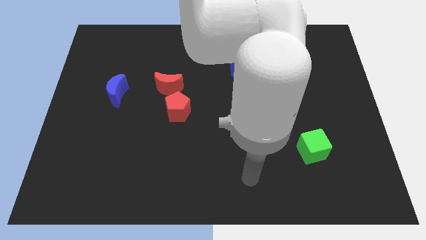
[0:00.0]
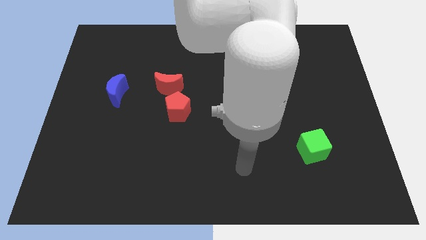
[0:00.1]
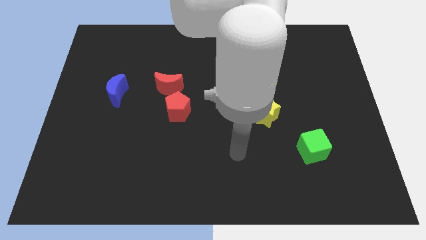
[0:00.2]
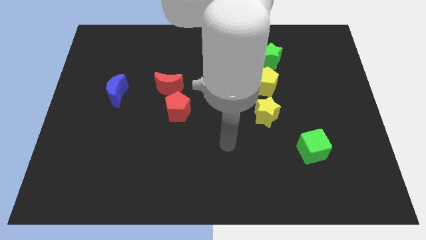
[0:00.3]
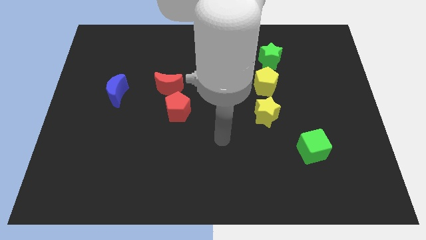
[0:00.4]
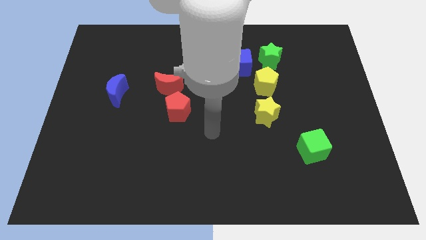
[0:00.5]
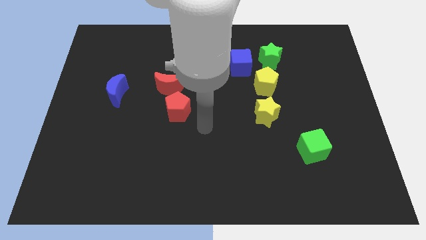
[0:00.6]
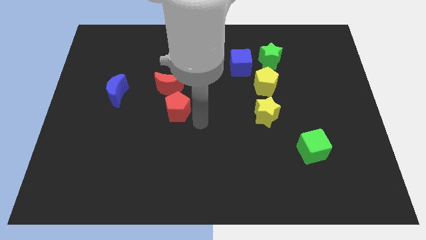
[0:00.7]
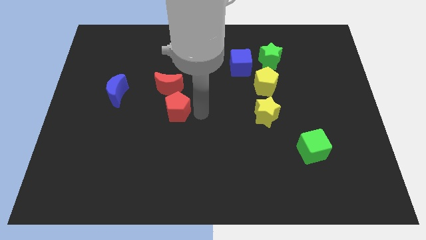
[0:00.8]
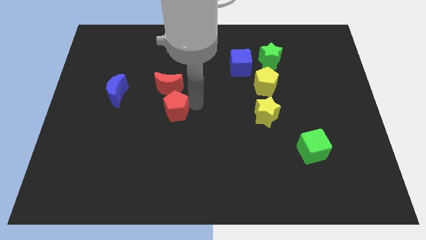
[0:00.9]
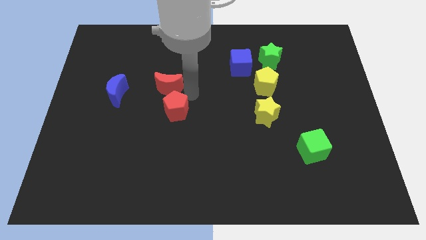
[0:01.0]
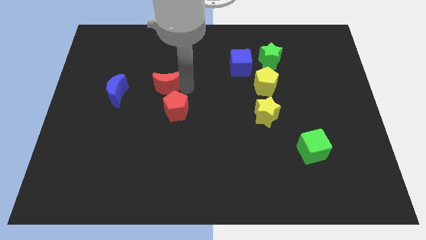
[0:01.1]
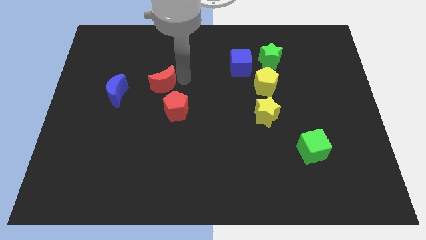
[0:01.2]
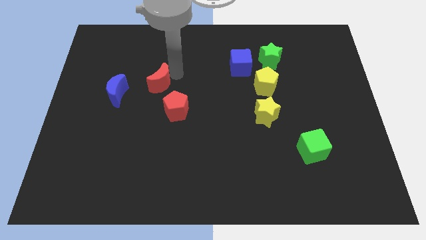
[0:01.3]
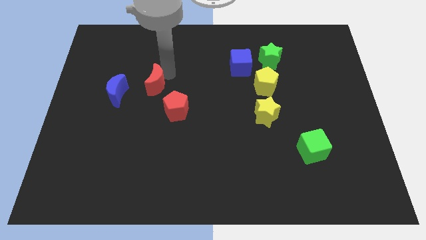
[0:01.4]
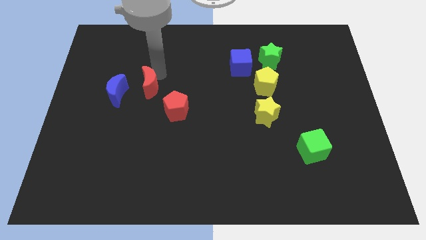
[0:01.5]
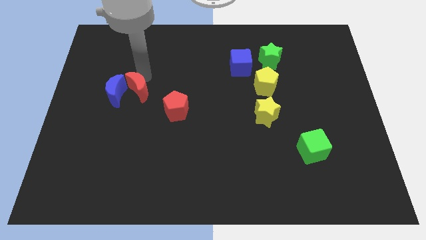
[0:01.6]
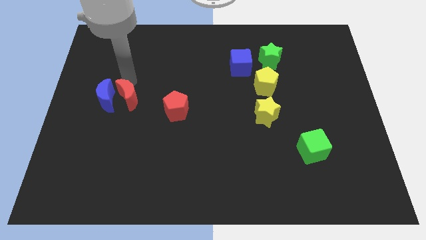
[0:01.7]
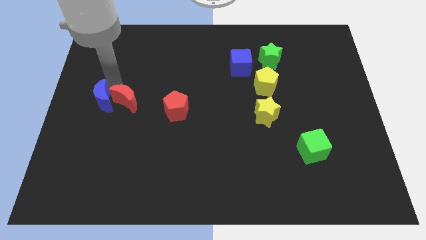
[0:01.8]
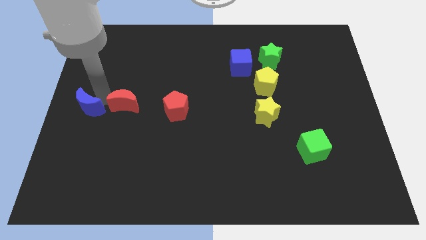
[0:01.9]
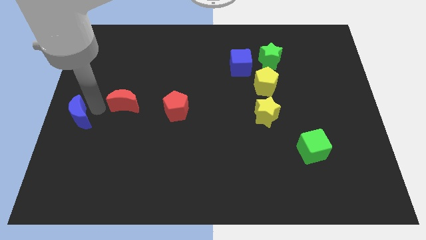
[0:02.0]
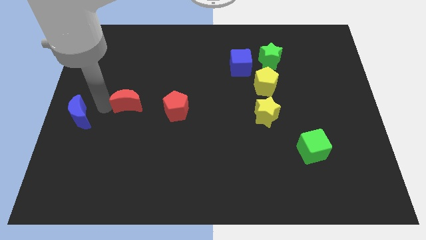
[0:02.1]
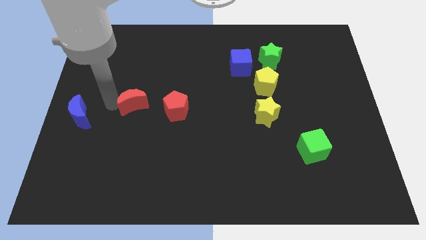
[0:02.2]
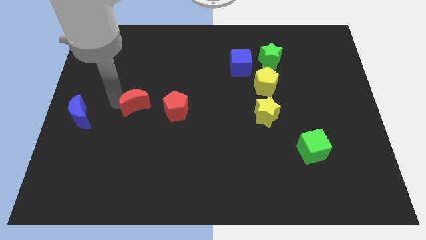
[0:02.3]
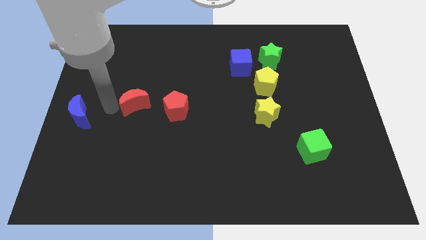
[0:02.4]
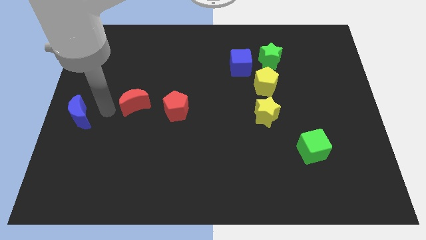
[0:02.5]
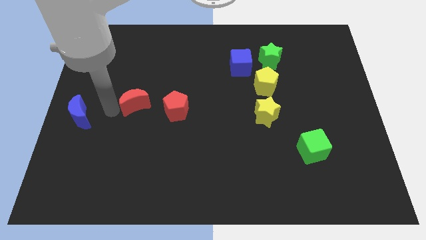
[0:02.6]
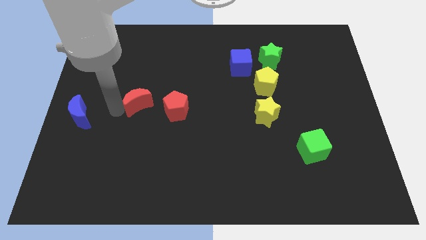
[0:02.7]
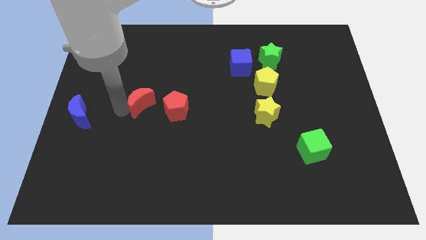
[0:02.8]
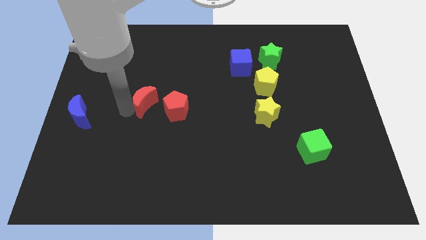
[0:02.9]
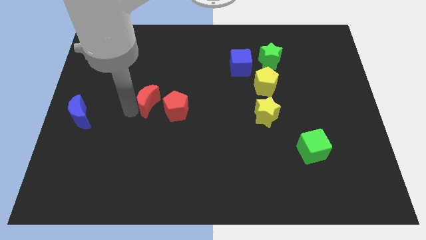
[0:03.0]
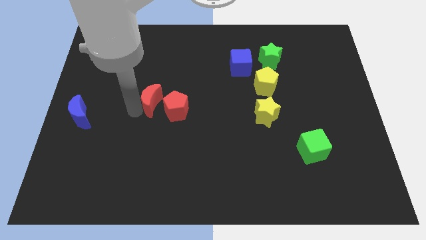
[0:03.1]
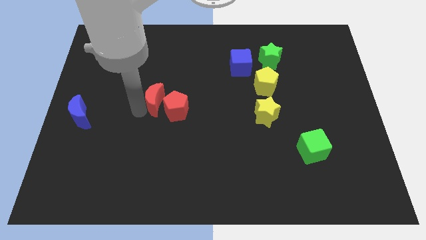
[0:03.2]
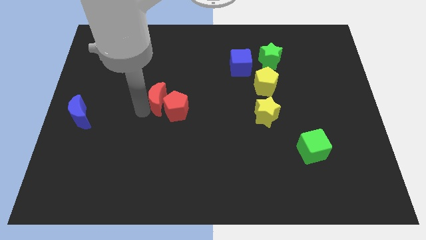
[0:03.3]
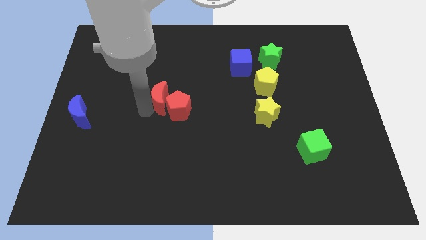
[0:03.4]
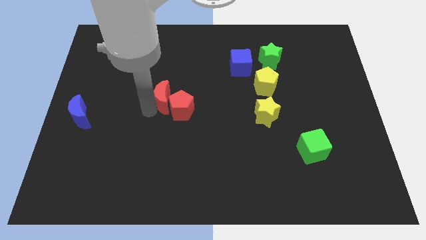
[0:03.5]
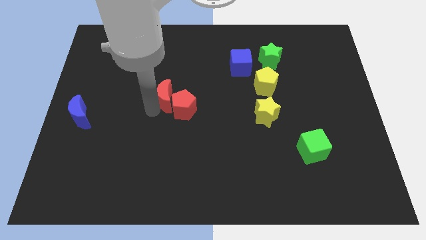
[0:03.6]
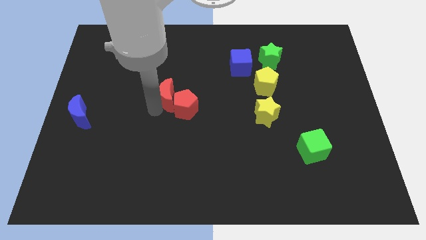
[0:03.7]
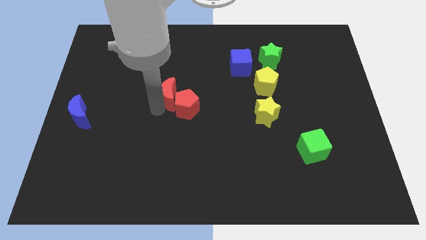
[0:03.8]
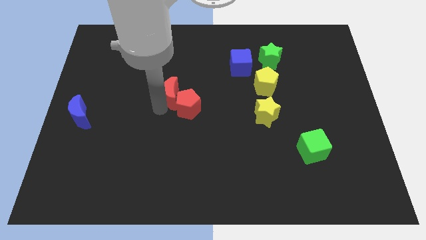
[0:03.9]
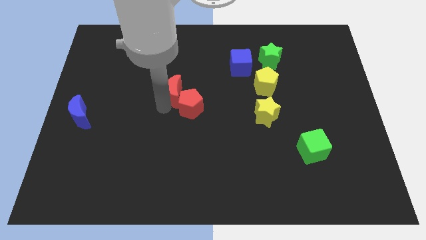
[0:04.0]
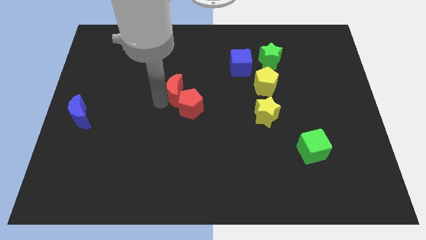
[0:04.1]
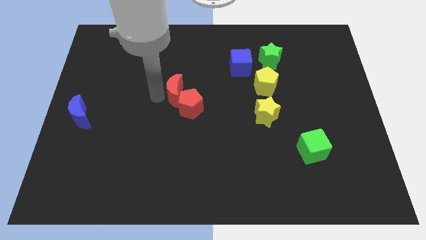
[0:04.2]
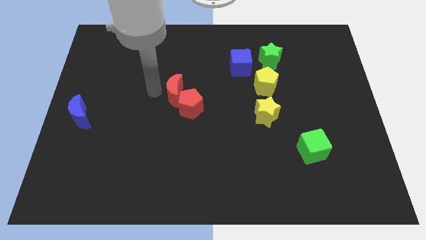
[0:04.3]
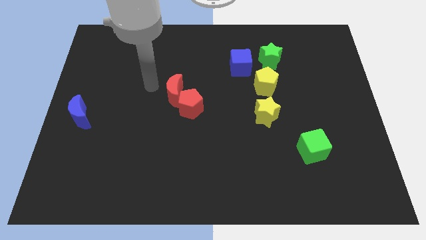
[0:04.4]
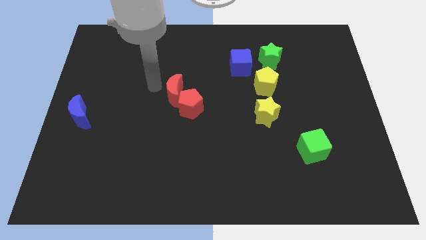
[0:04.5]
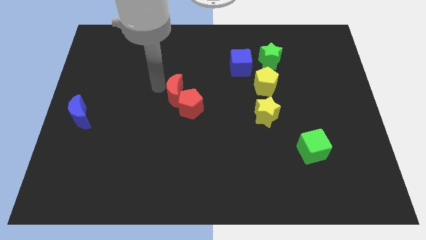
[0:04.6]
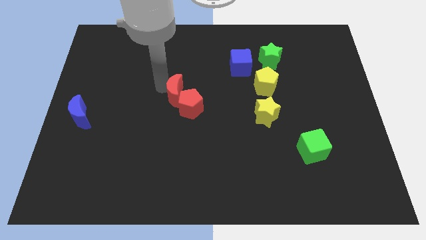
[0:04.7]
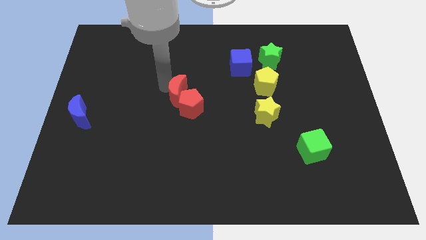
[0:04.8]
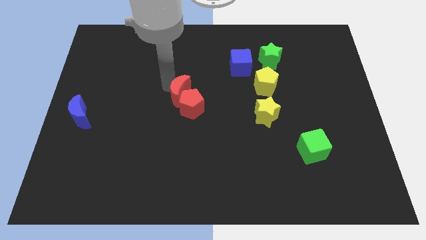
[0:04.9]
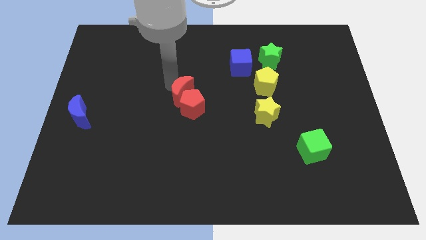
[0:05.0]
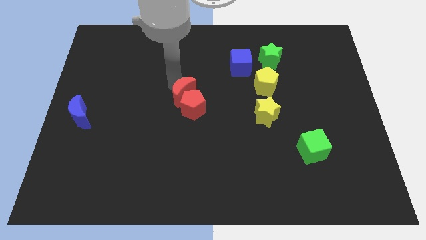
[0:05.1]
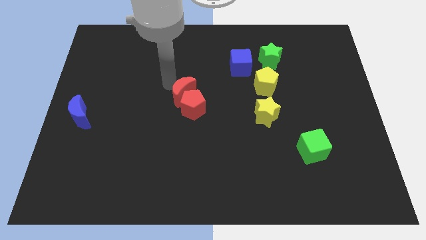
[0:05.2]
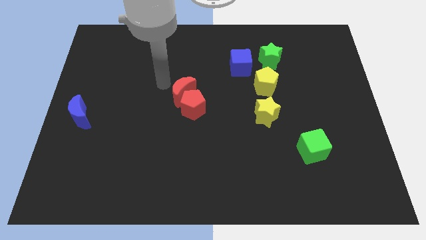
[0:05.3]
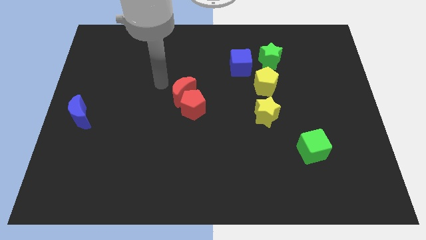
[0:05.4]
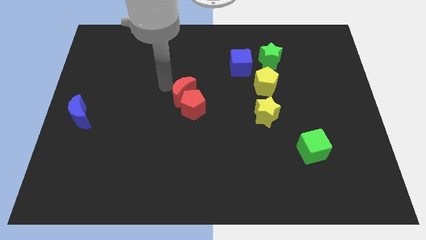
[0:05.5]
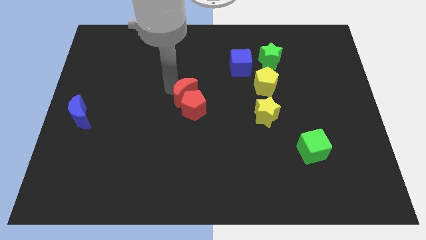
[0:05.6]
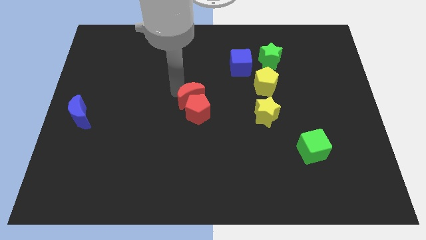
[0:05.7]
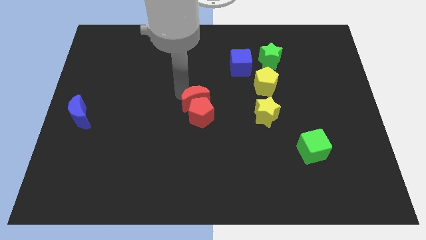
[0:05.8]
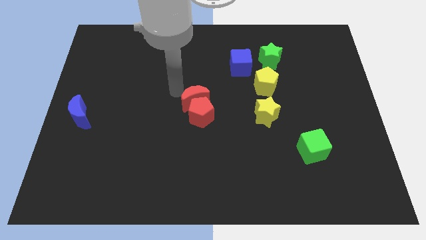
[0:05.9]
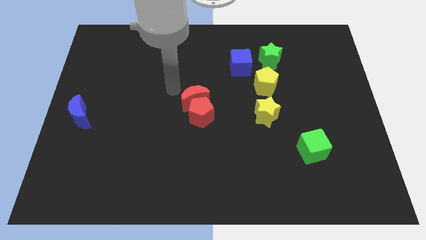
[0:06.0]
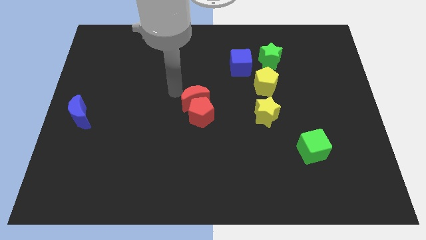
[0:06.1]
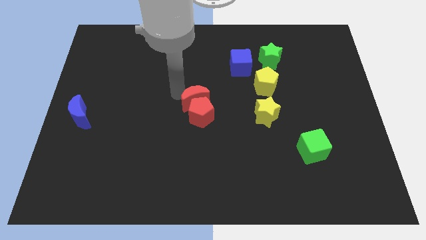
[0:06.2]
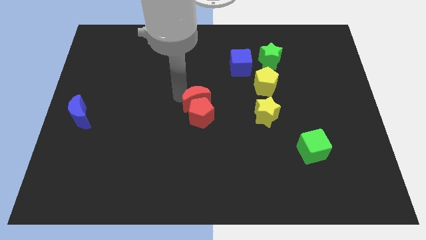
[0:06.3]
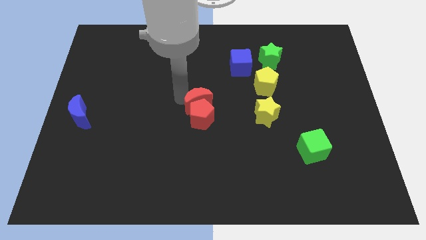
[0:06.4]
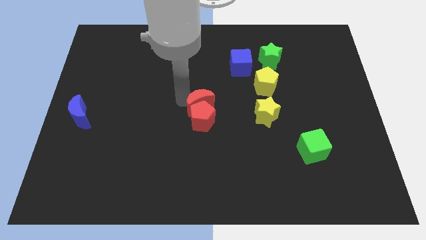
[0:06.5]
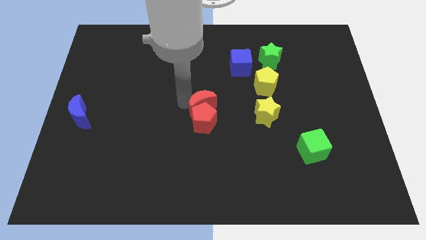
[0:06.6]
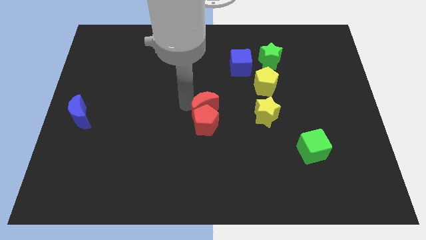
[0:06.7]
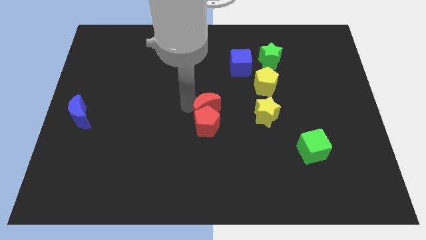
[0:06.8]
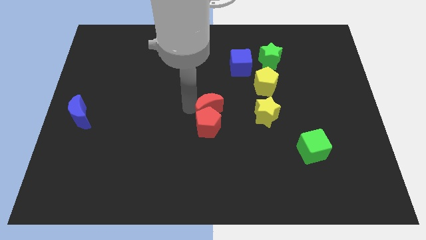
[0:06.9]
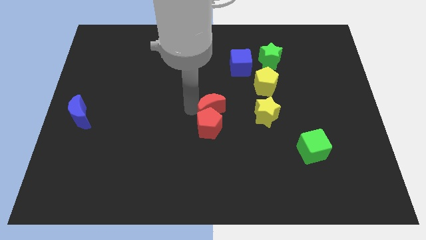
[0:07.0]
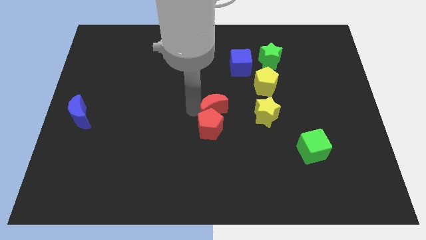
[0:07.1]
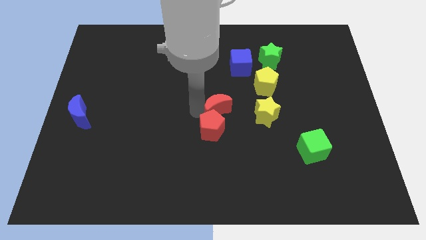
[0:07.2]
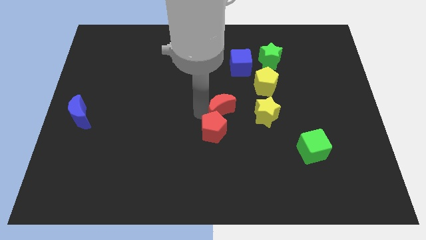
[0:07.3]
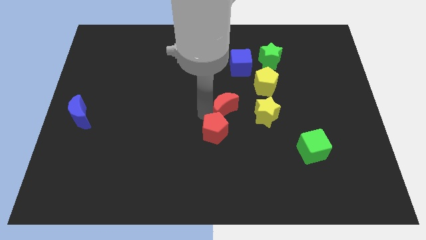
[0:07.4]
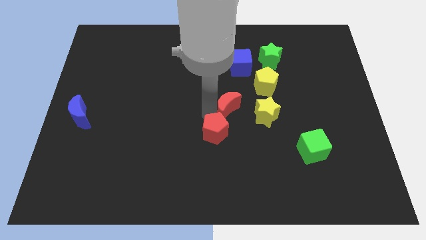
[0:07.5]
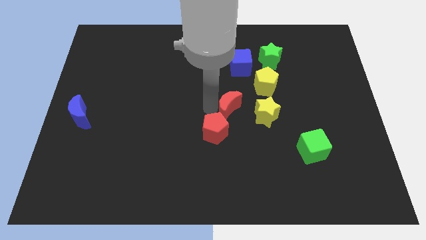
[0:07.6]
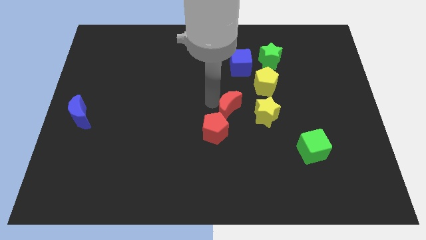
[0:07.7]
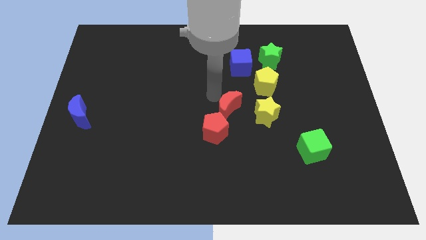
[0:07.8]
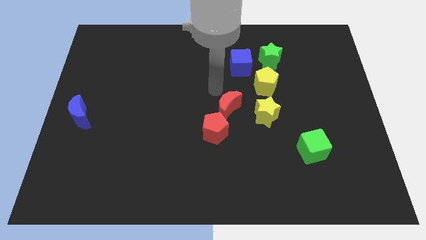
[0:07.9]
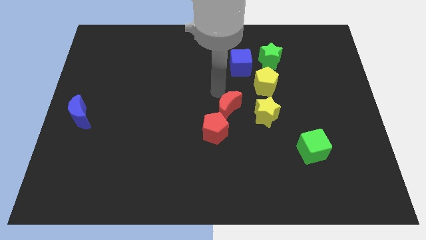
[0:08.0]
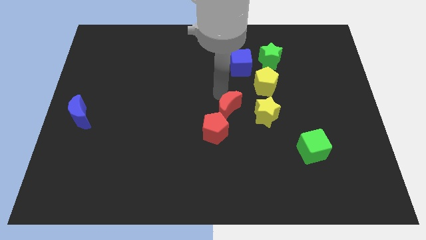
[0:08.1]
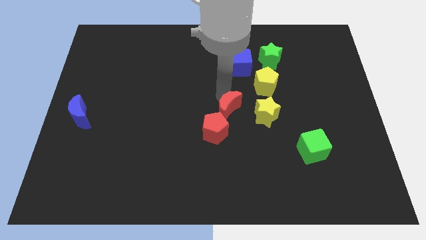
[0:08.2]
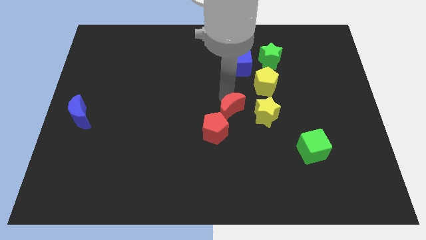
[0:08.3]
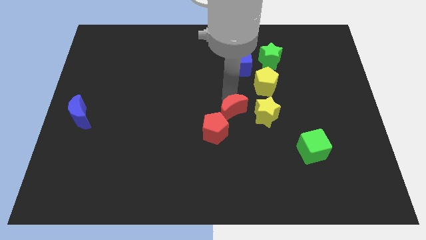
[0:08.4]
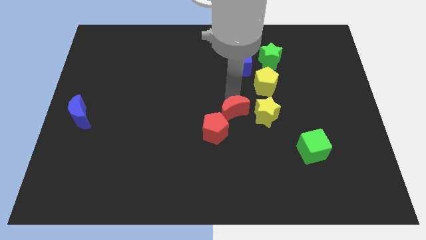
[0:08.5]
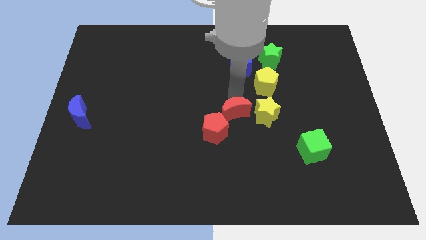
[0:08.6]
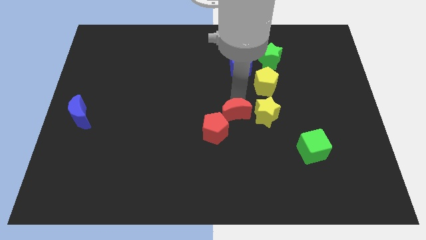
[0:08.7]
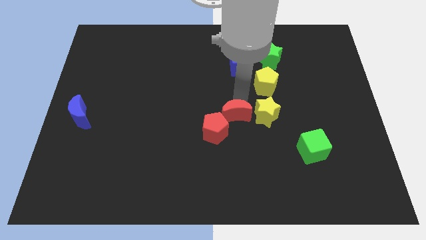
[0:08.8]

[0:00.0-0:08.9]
push the red moon to the bottom left side of the yellow star
